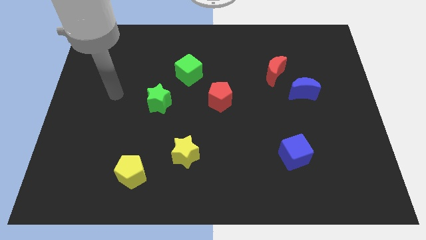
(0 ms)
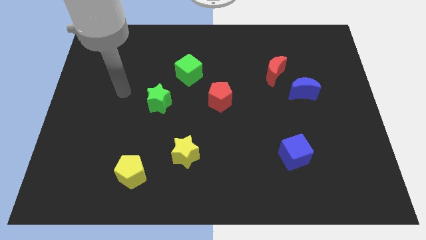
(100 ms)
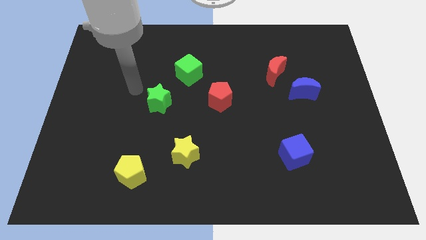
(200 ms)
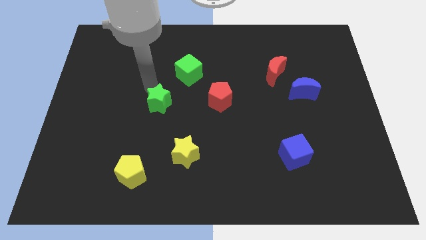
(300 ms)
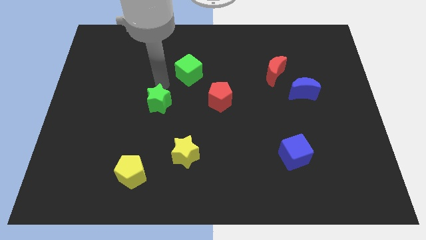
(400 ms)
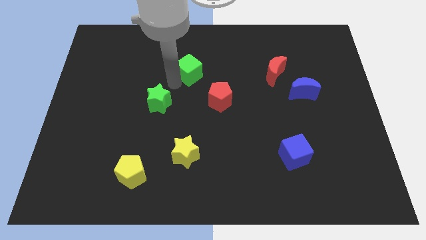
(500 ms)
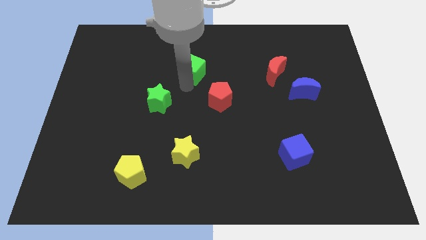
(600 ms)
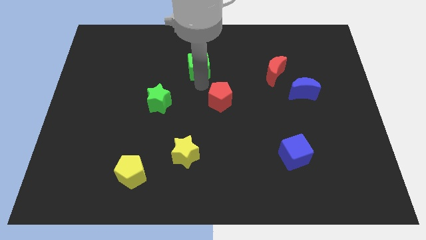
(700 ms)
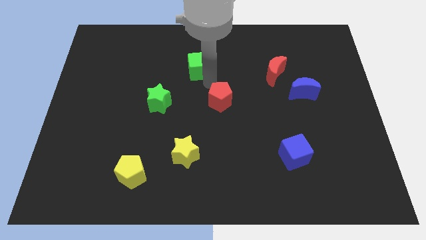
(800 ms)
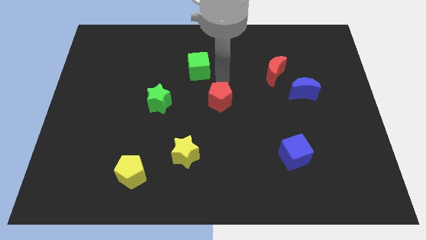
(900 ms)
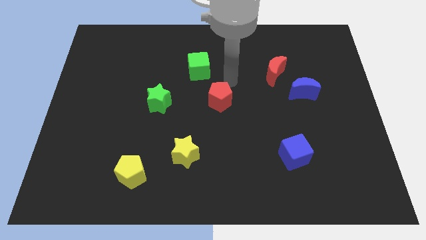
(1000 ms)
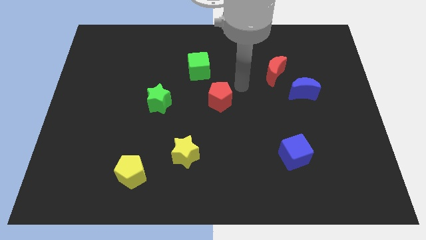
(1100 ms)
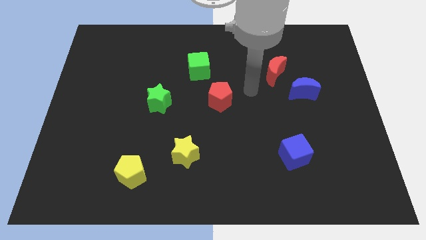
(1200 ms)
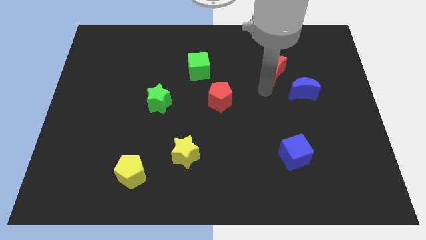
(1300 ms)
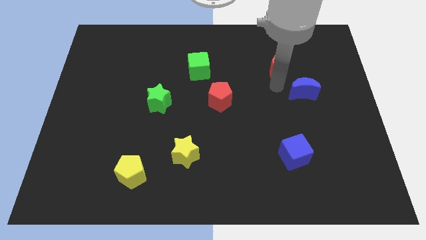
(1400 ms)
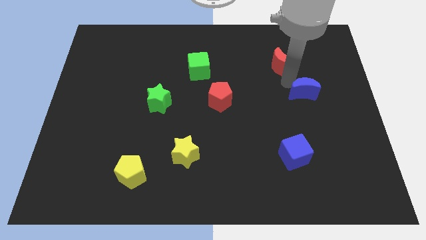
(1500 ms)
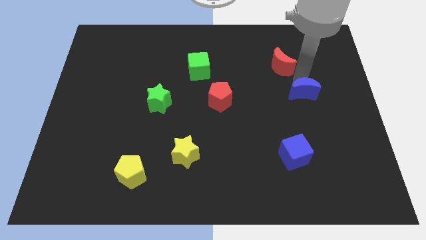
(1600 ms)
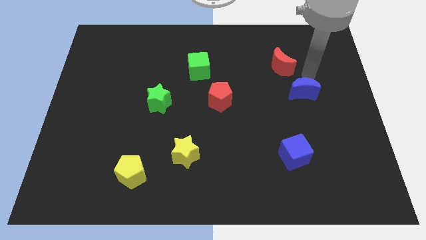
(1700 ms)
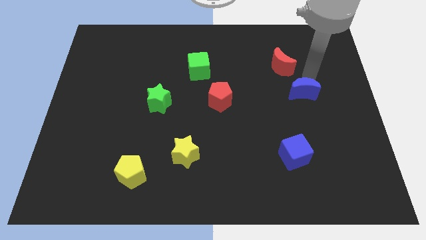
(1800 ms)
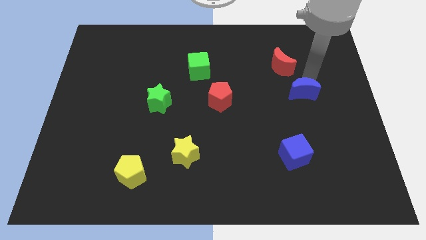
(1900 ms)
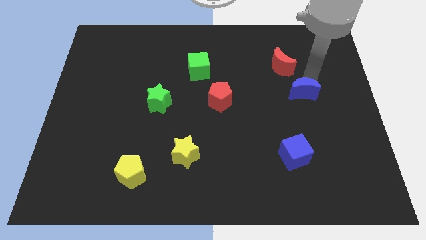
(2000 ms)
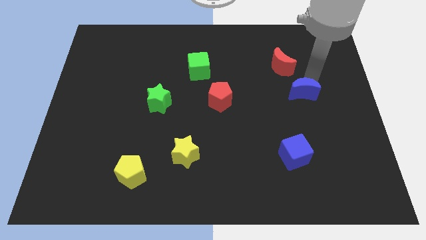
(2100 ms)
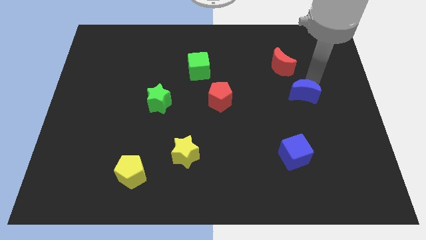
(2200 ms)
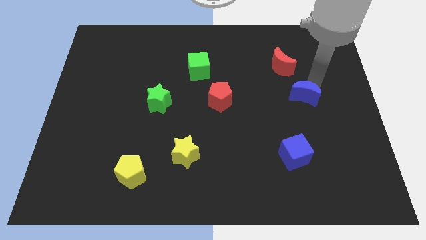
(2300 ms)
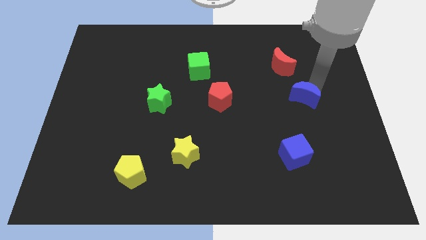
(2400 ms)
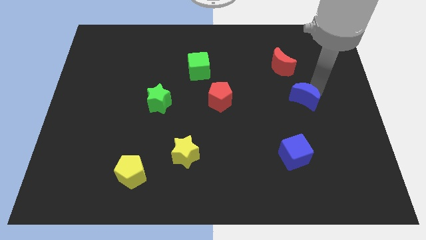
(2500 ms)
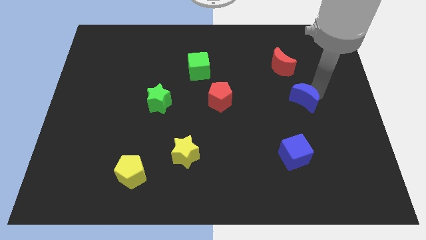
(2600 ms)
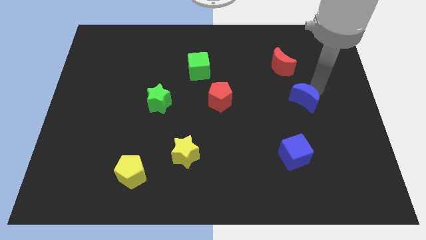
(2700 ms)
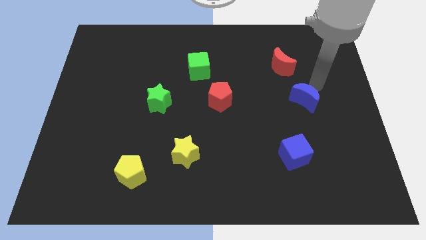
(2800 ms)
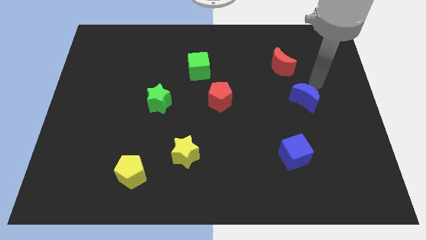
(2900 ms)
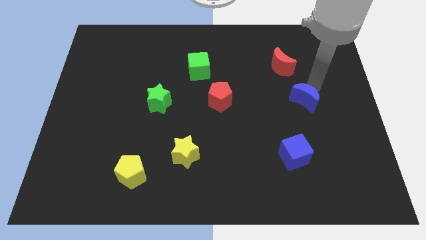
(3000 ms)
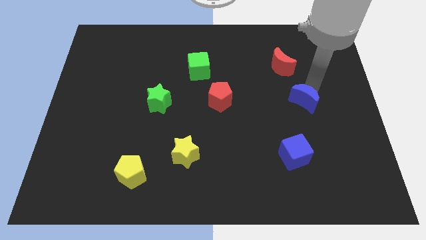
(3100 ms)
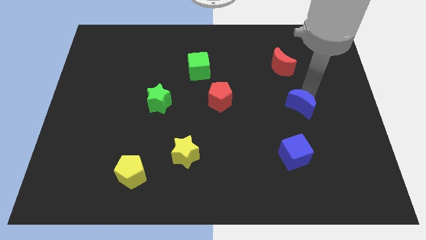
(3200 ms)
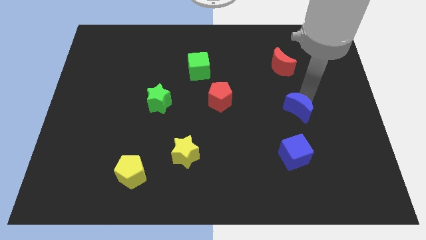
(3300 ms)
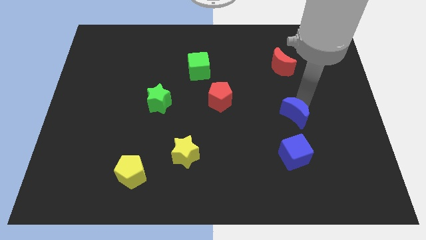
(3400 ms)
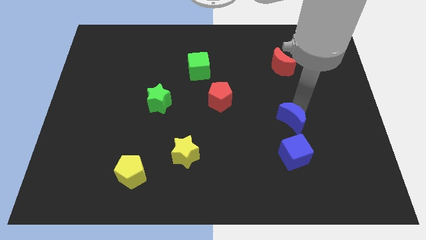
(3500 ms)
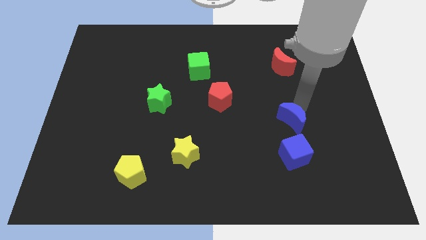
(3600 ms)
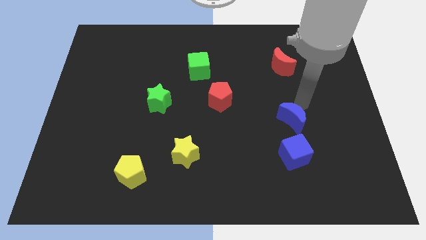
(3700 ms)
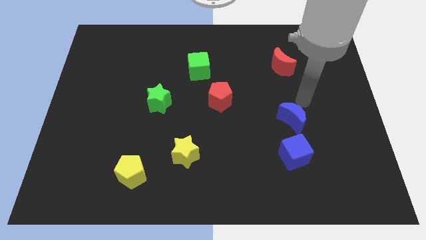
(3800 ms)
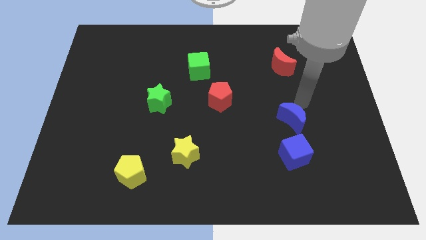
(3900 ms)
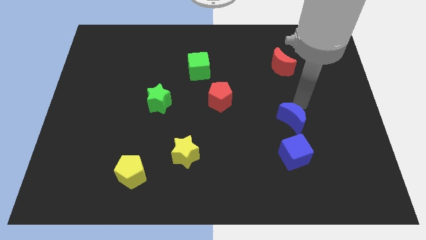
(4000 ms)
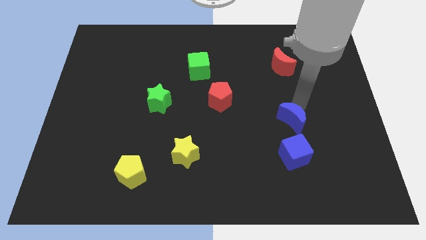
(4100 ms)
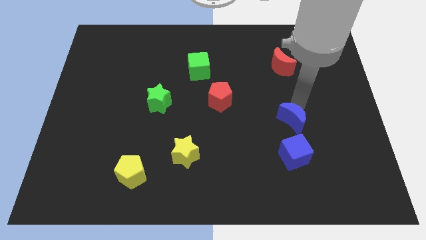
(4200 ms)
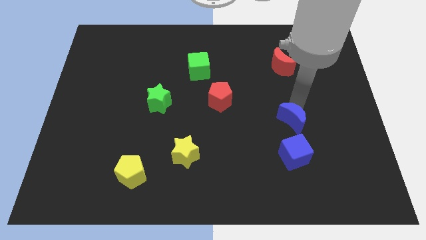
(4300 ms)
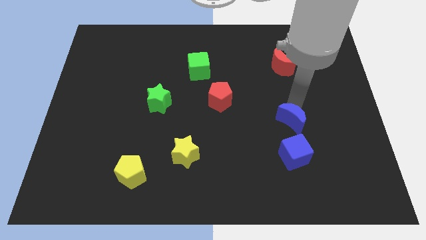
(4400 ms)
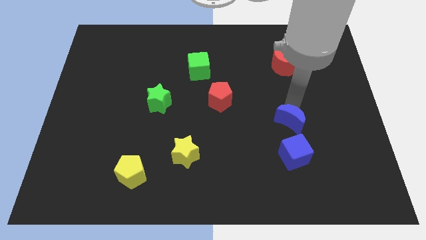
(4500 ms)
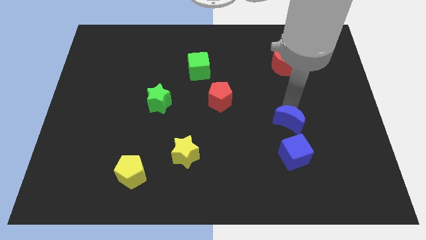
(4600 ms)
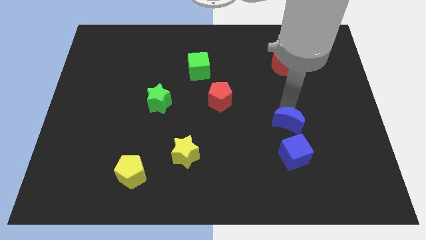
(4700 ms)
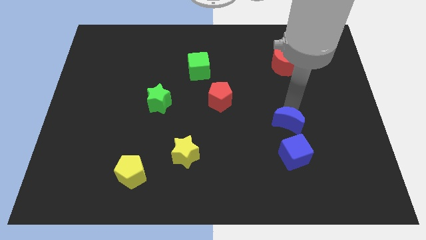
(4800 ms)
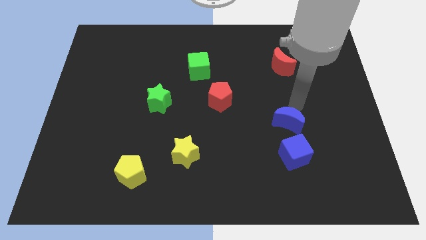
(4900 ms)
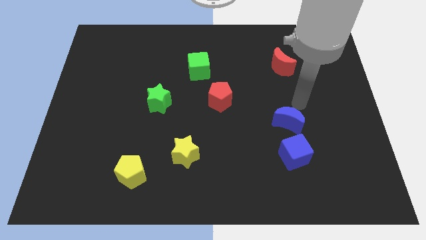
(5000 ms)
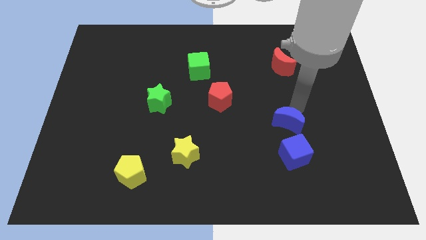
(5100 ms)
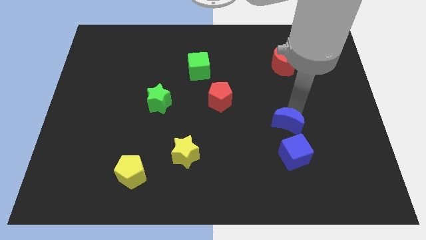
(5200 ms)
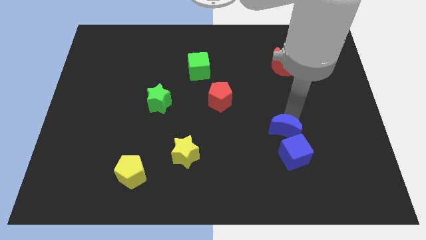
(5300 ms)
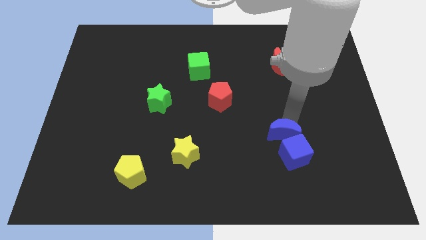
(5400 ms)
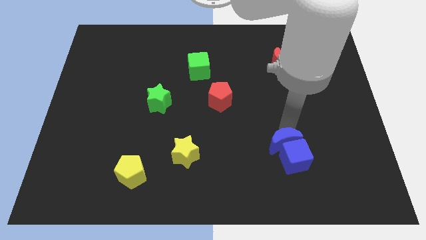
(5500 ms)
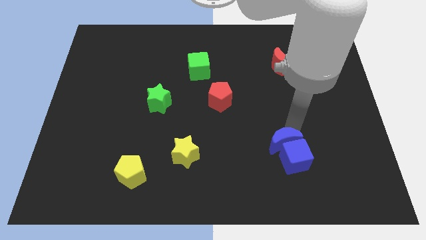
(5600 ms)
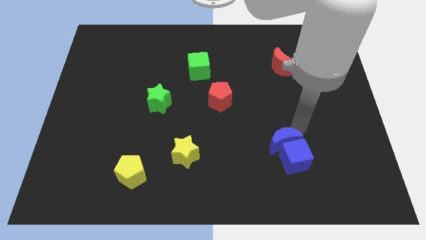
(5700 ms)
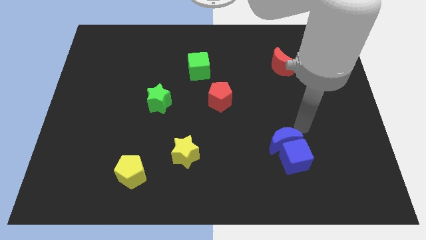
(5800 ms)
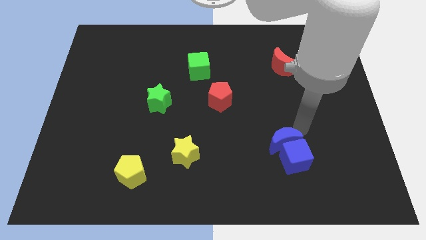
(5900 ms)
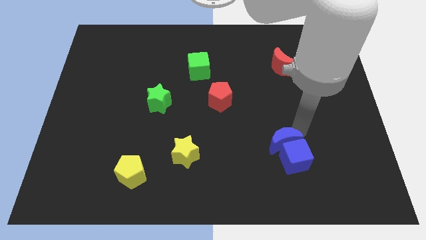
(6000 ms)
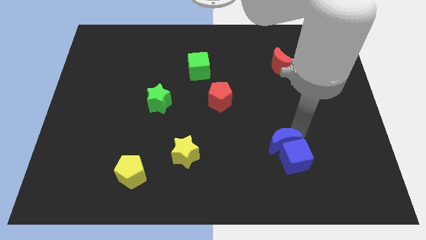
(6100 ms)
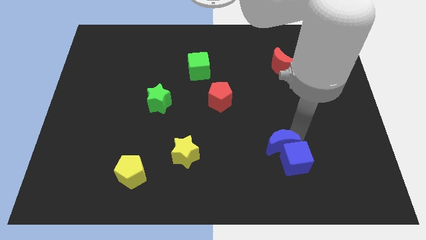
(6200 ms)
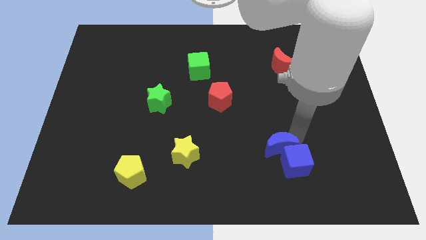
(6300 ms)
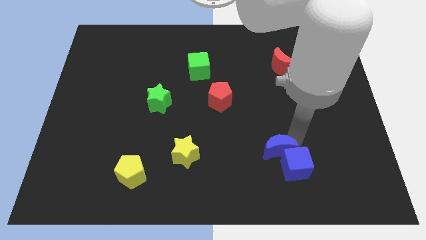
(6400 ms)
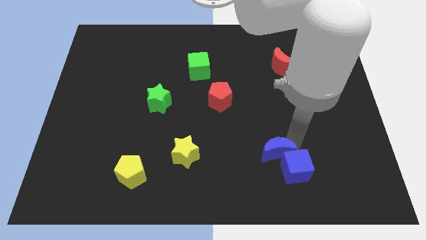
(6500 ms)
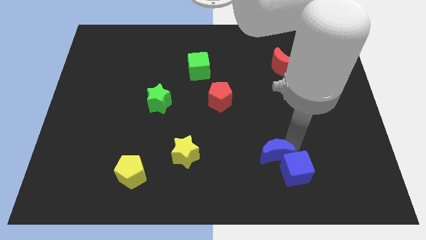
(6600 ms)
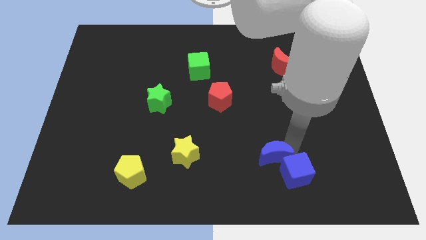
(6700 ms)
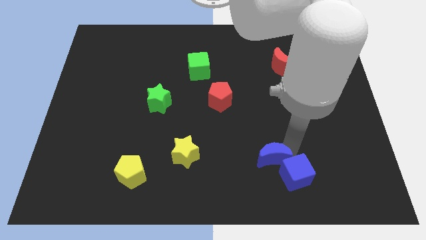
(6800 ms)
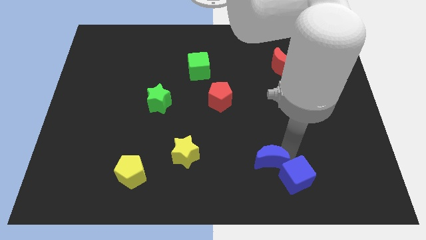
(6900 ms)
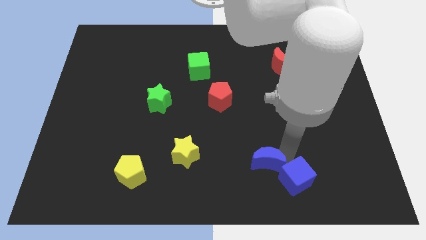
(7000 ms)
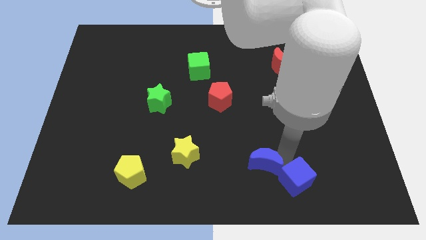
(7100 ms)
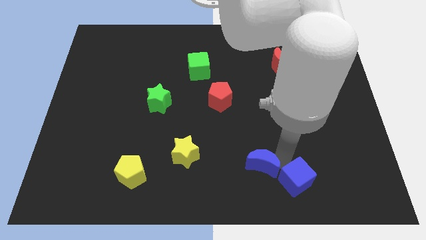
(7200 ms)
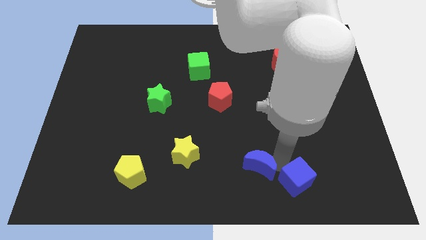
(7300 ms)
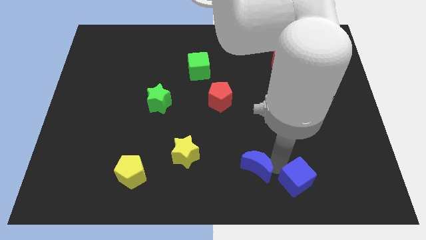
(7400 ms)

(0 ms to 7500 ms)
push the blue moon to the bottom

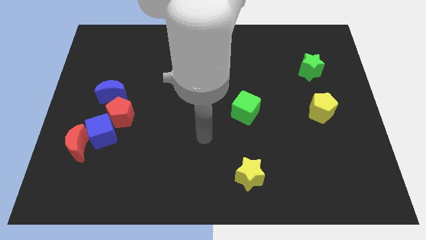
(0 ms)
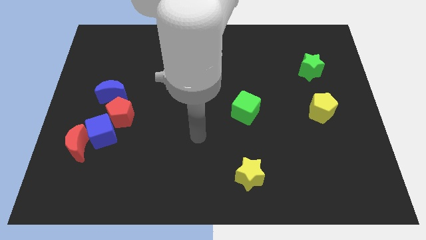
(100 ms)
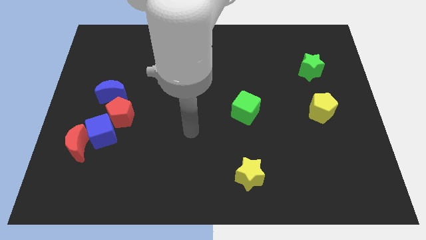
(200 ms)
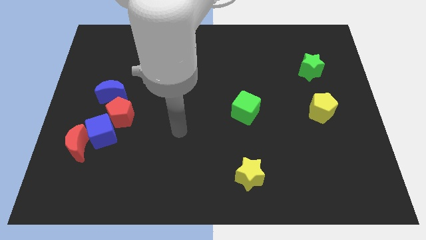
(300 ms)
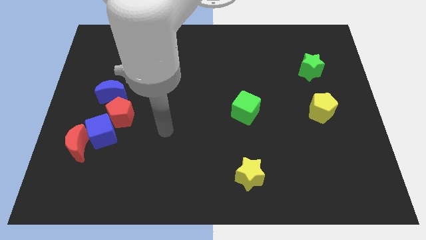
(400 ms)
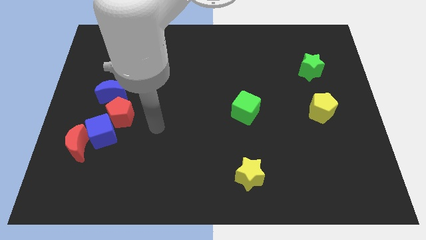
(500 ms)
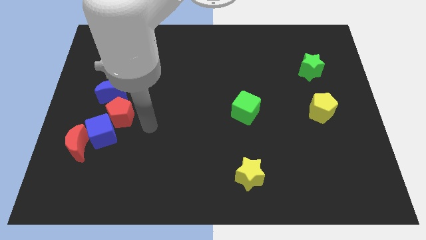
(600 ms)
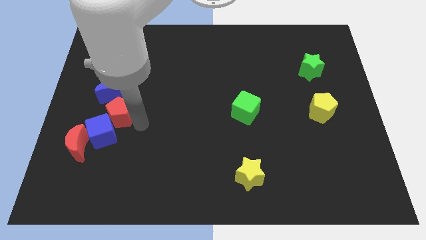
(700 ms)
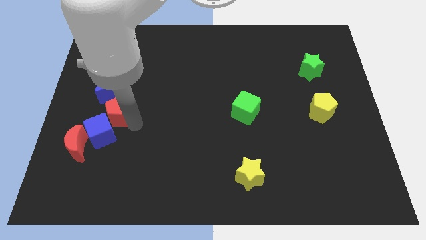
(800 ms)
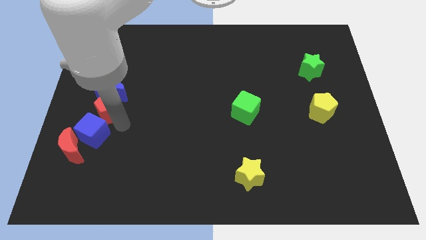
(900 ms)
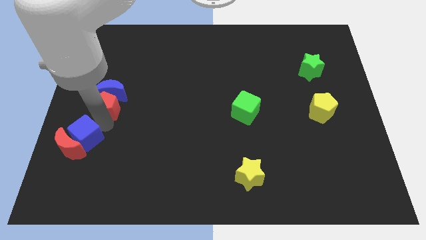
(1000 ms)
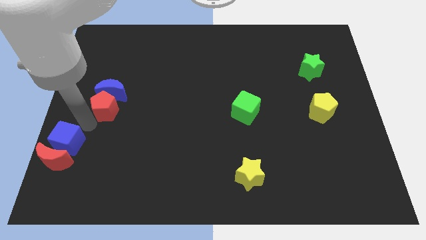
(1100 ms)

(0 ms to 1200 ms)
put the red moon to the bottom left of the board
